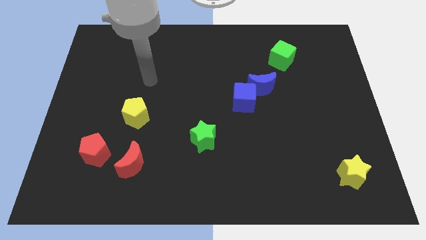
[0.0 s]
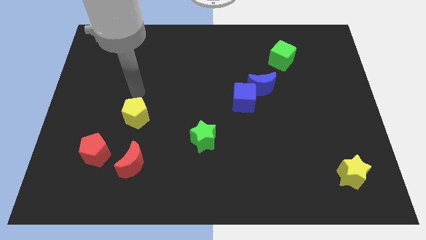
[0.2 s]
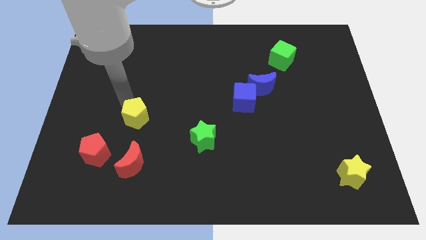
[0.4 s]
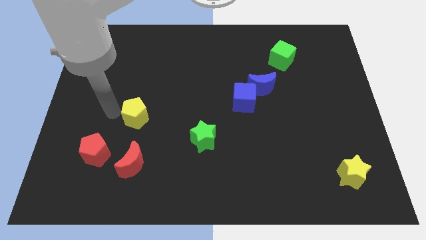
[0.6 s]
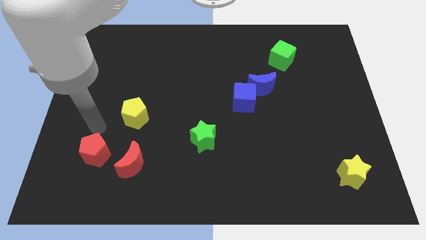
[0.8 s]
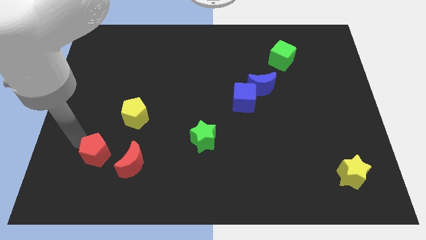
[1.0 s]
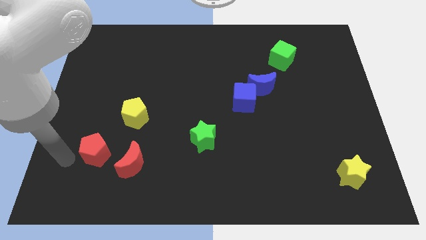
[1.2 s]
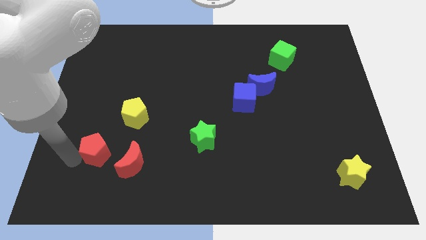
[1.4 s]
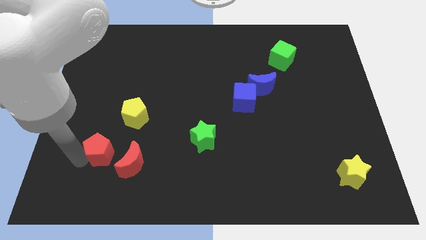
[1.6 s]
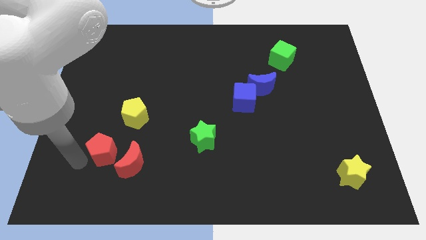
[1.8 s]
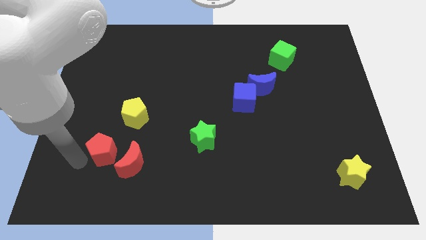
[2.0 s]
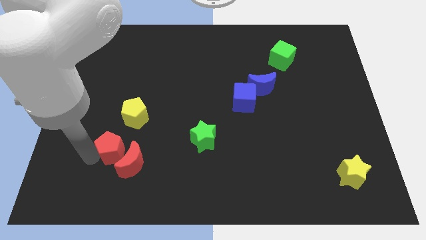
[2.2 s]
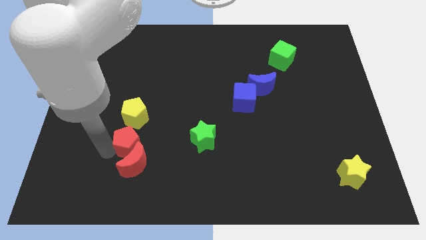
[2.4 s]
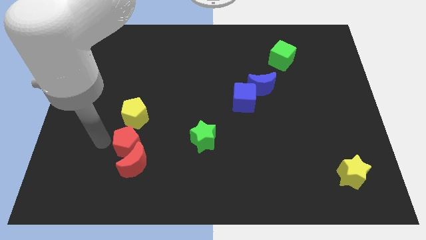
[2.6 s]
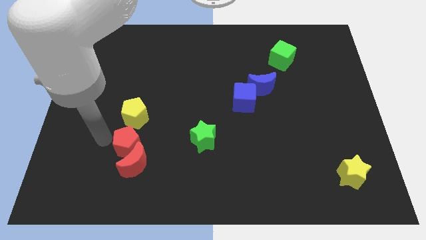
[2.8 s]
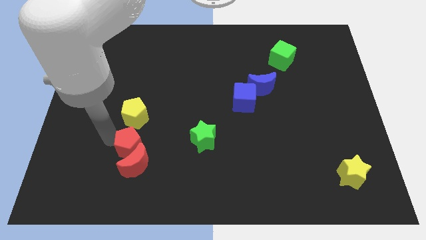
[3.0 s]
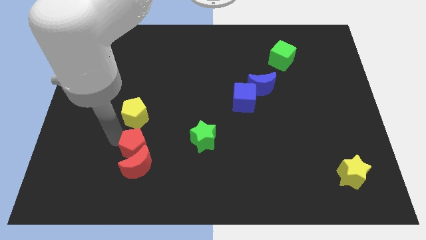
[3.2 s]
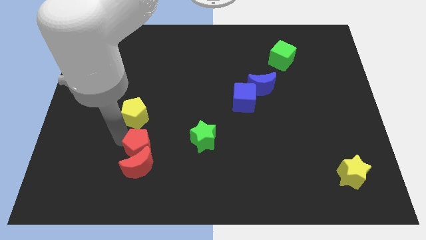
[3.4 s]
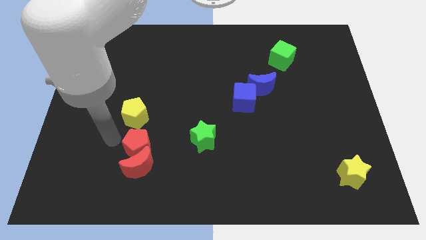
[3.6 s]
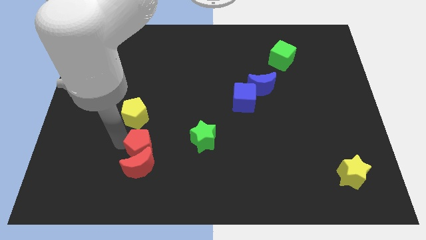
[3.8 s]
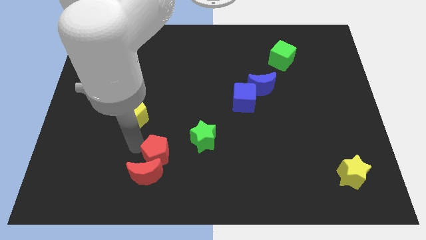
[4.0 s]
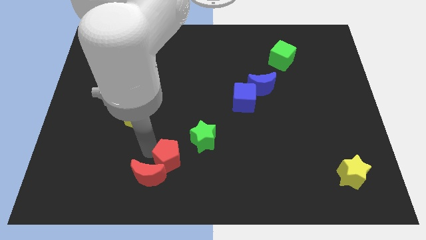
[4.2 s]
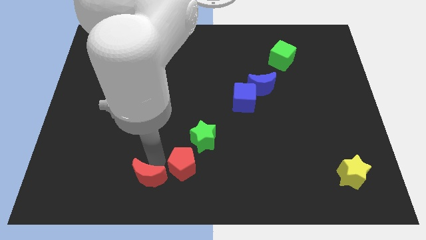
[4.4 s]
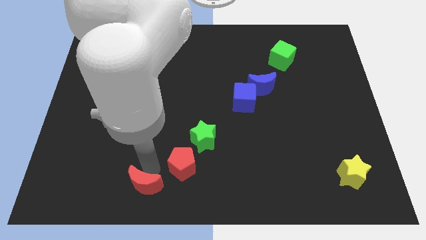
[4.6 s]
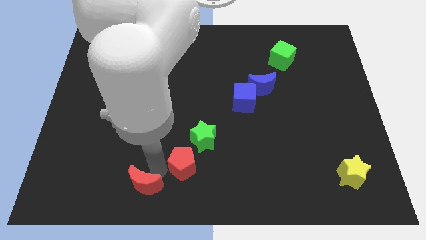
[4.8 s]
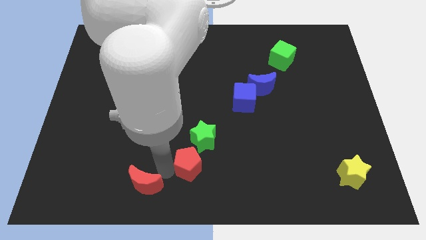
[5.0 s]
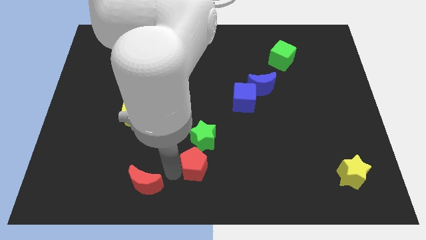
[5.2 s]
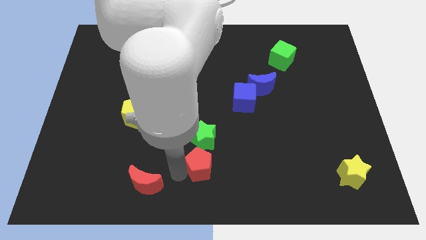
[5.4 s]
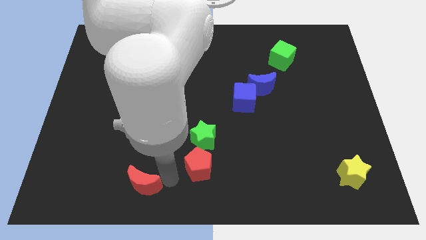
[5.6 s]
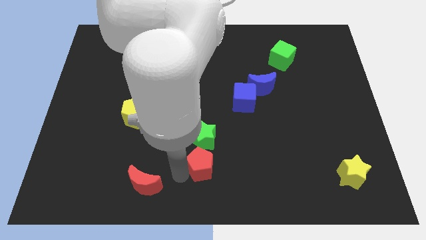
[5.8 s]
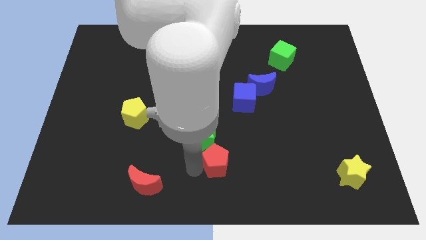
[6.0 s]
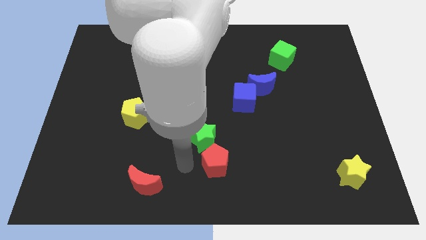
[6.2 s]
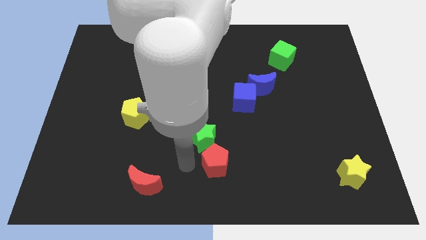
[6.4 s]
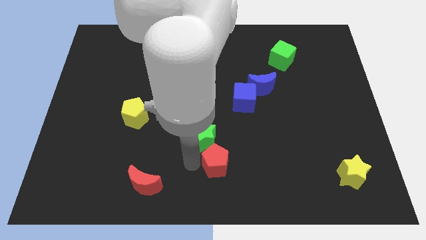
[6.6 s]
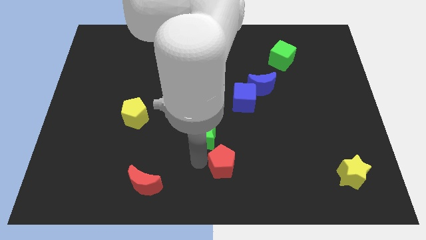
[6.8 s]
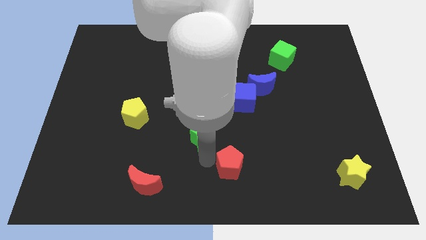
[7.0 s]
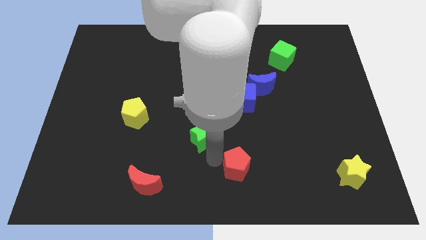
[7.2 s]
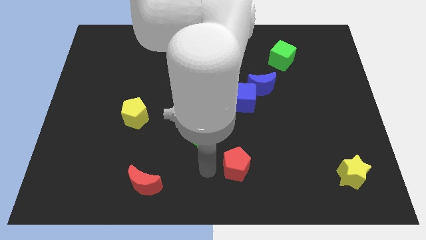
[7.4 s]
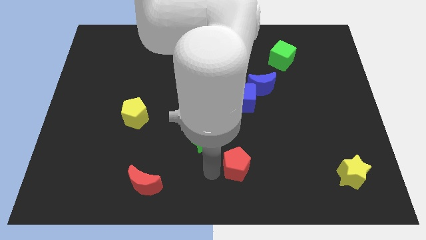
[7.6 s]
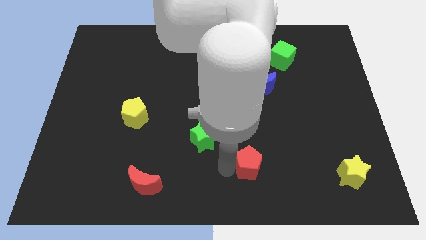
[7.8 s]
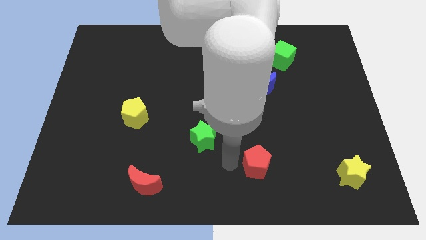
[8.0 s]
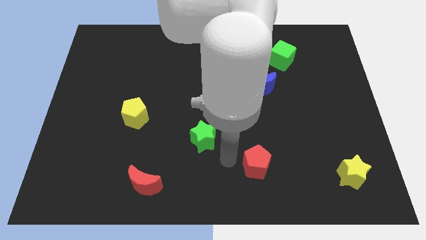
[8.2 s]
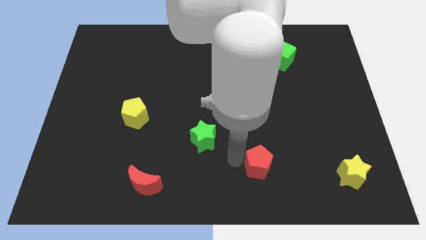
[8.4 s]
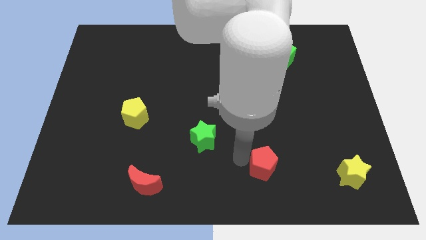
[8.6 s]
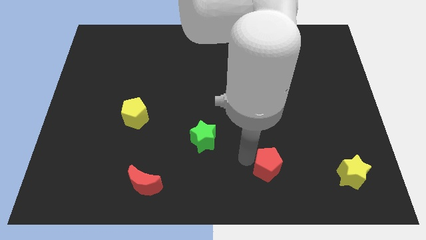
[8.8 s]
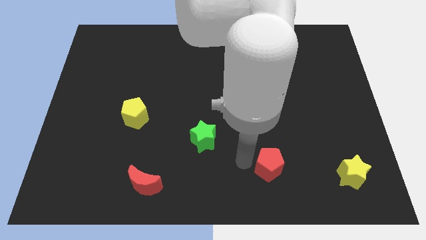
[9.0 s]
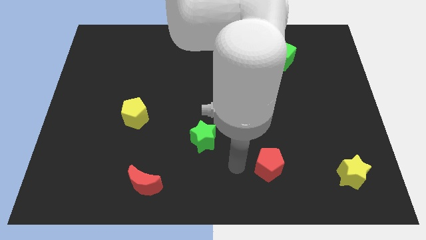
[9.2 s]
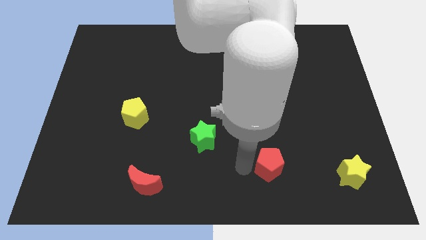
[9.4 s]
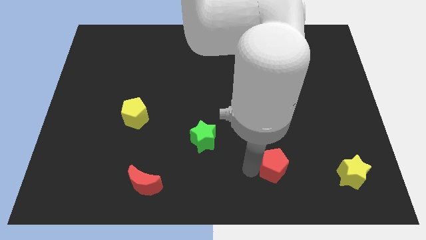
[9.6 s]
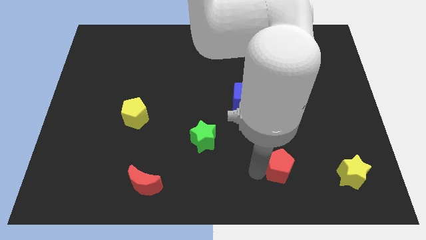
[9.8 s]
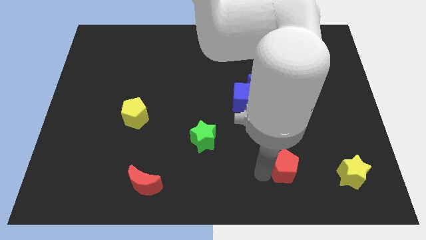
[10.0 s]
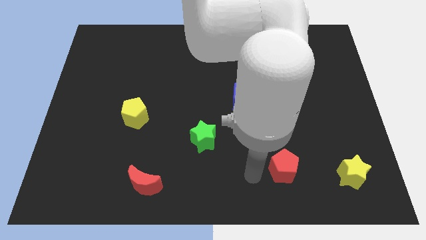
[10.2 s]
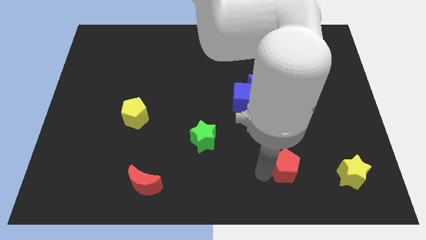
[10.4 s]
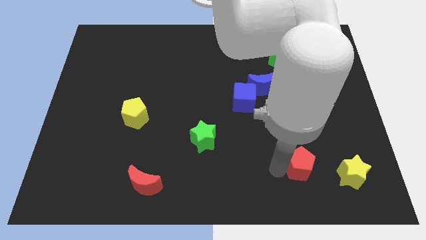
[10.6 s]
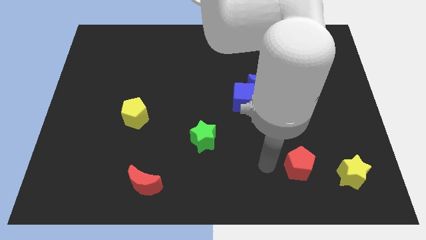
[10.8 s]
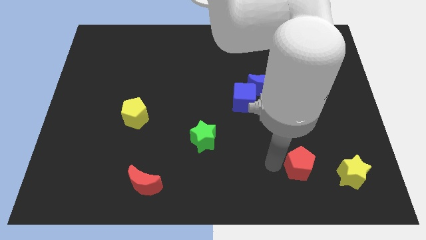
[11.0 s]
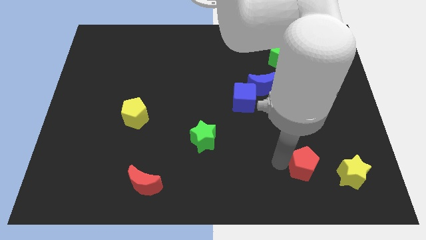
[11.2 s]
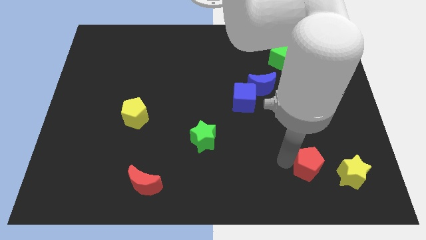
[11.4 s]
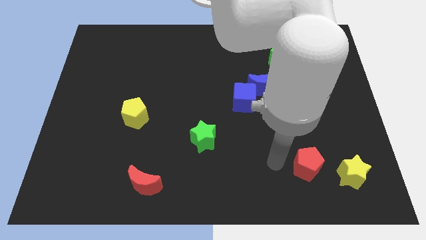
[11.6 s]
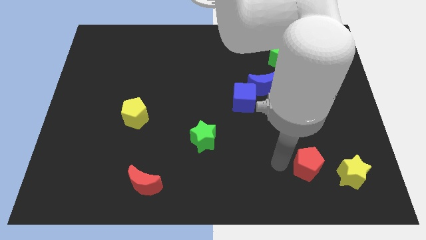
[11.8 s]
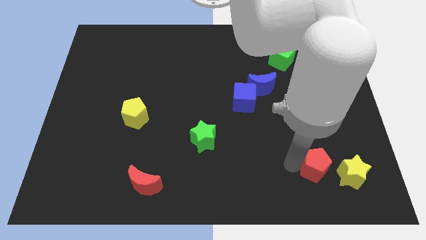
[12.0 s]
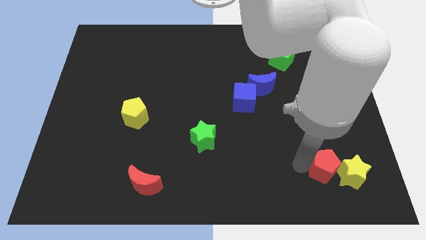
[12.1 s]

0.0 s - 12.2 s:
put the red pentagon next to the yellow star

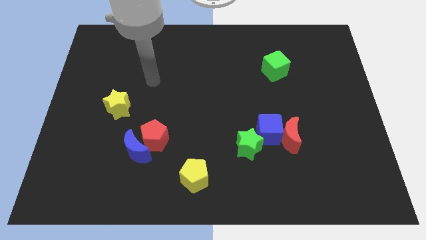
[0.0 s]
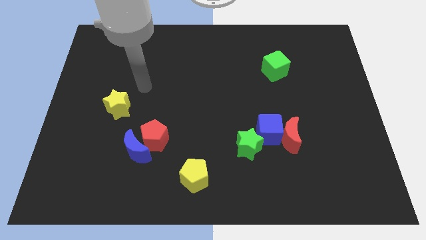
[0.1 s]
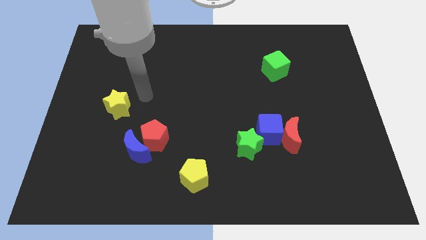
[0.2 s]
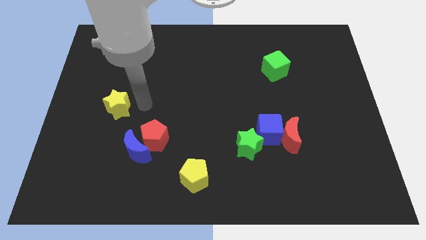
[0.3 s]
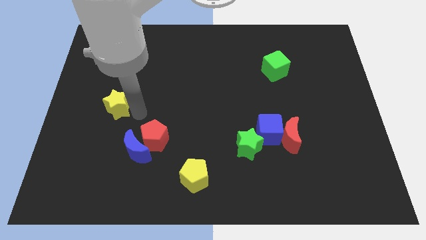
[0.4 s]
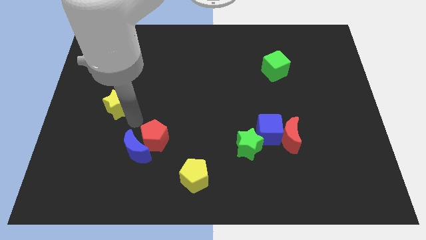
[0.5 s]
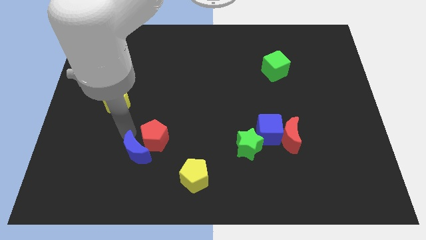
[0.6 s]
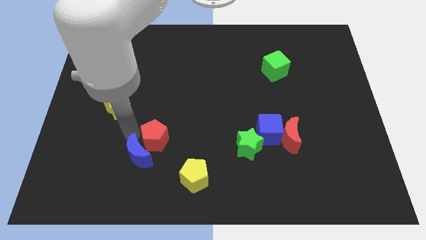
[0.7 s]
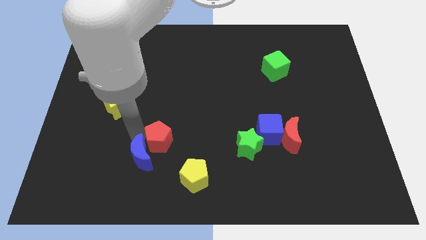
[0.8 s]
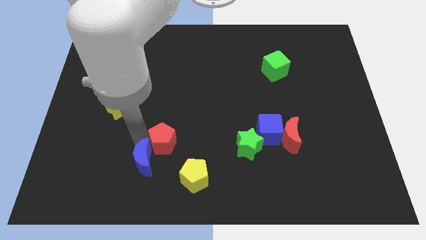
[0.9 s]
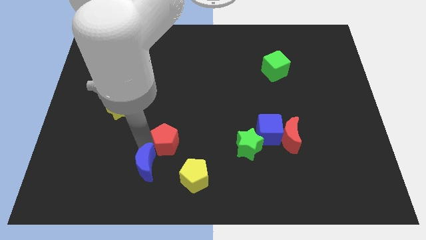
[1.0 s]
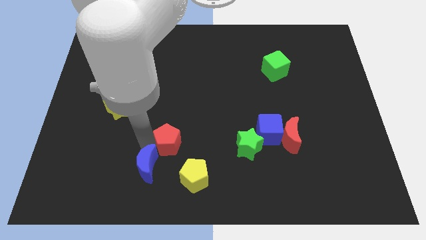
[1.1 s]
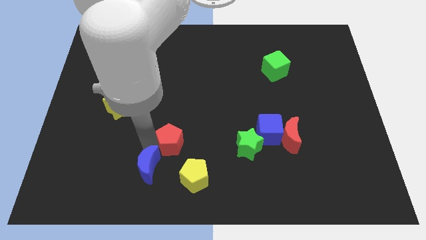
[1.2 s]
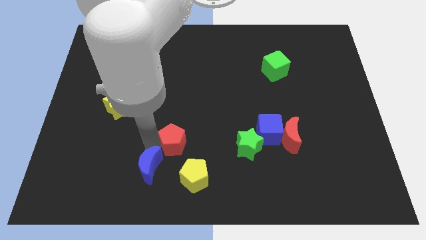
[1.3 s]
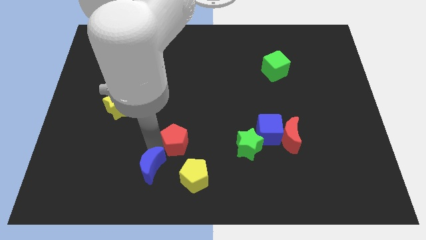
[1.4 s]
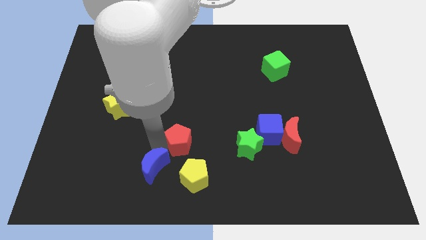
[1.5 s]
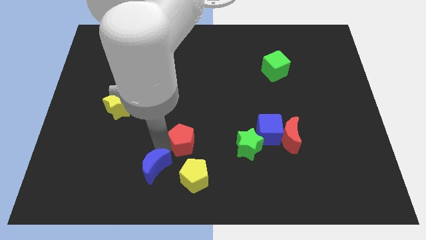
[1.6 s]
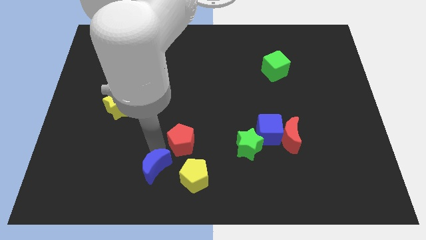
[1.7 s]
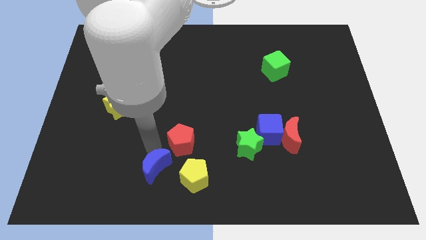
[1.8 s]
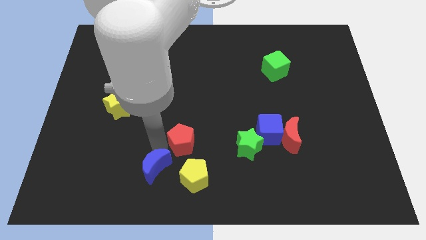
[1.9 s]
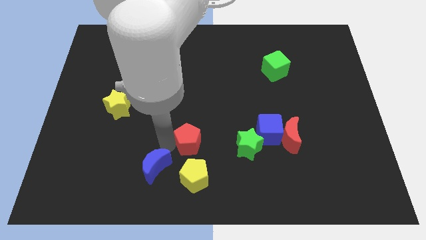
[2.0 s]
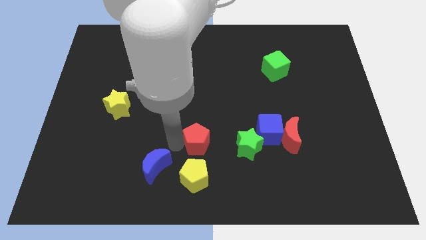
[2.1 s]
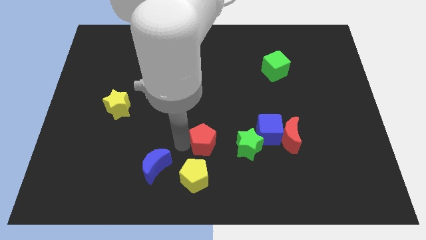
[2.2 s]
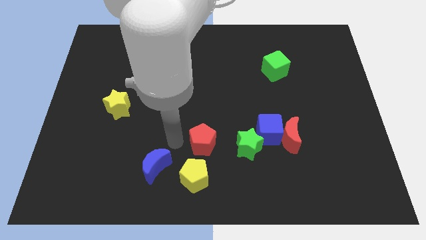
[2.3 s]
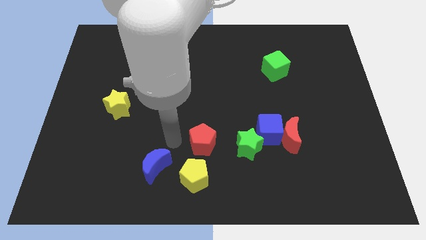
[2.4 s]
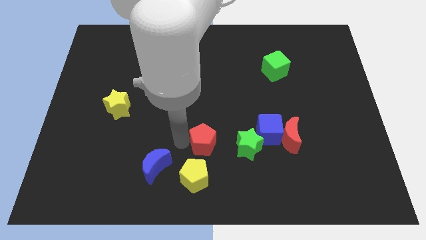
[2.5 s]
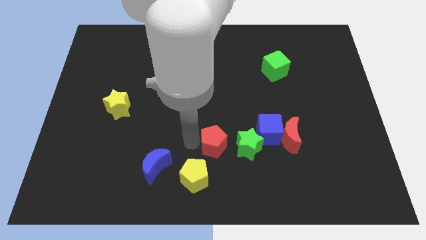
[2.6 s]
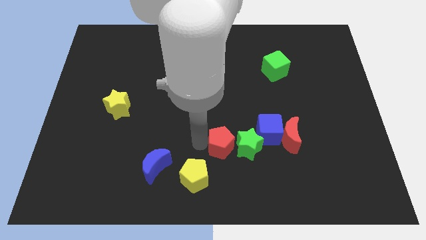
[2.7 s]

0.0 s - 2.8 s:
slide the red pentagon to the green star
